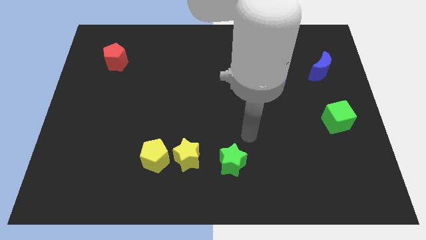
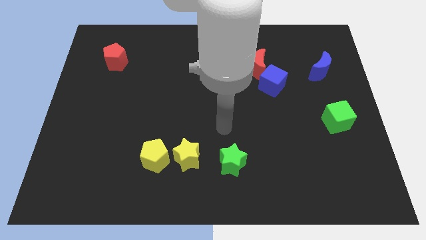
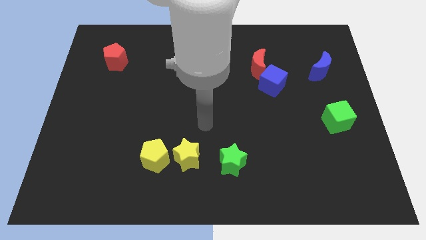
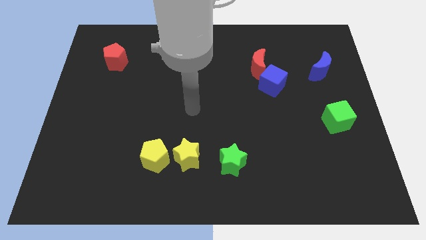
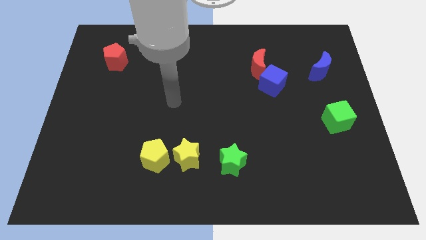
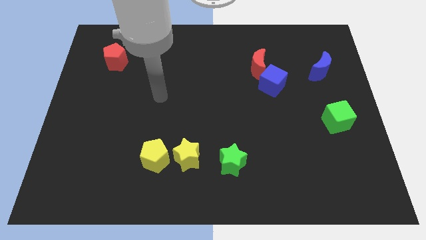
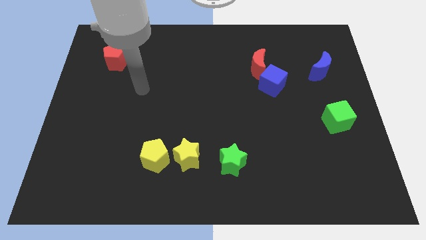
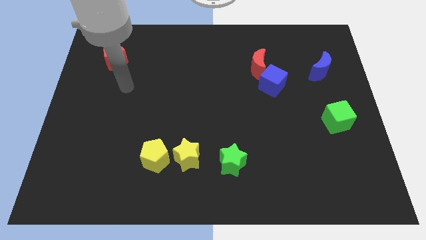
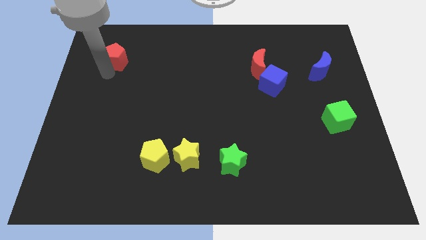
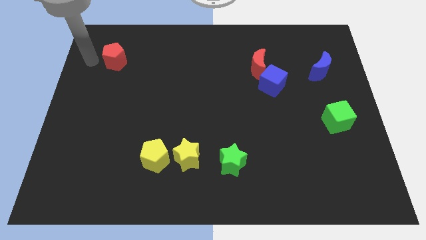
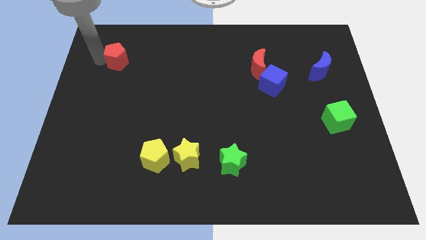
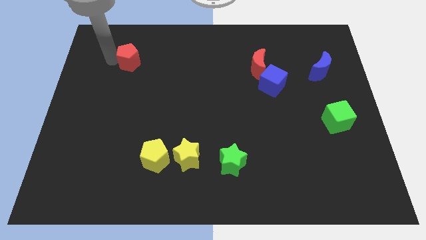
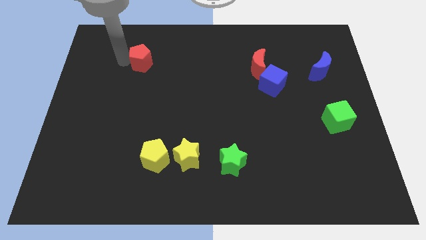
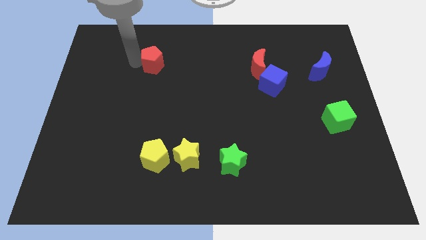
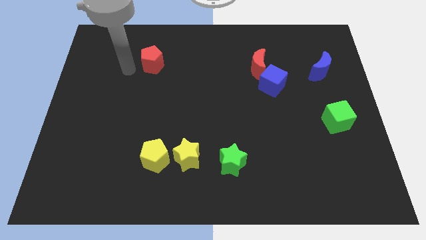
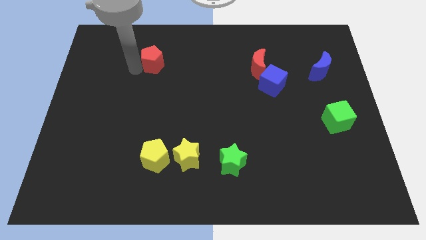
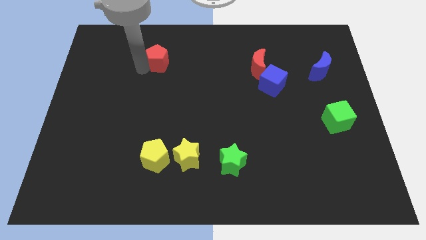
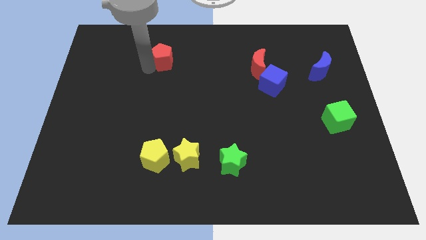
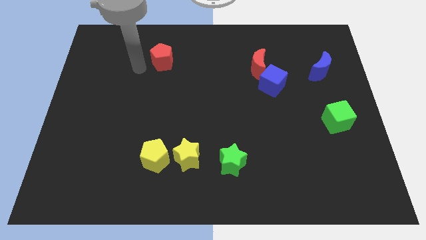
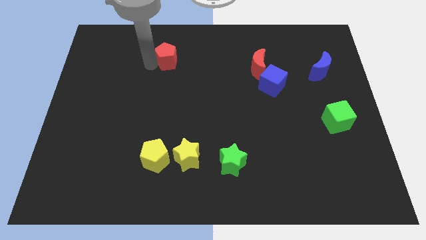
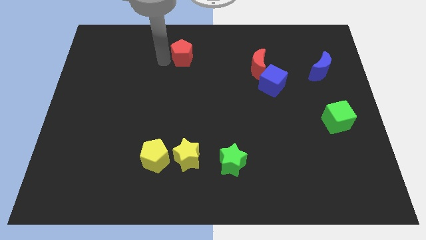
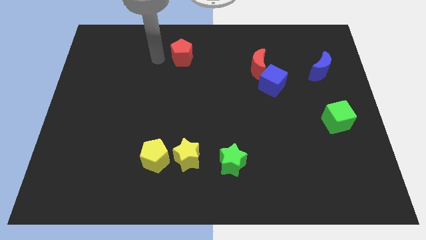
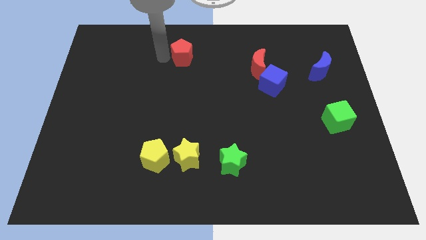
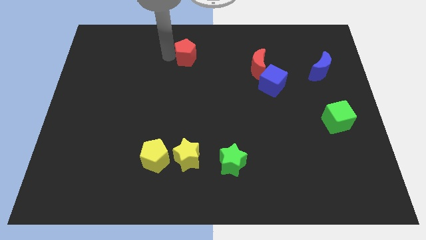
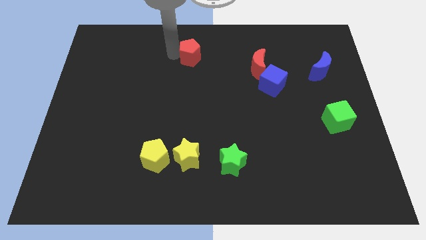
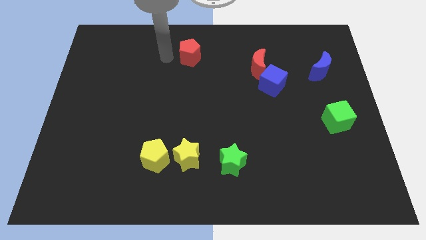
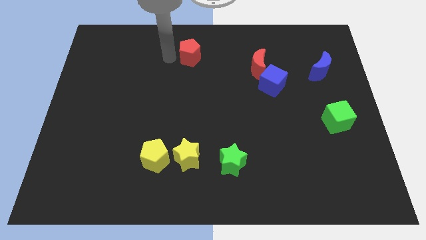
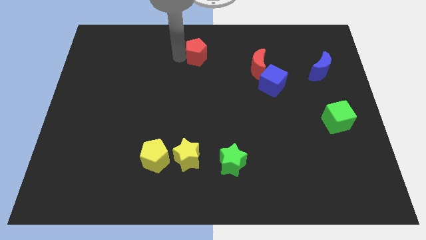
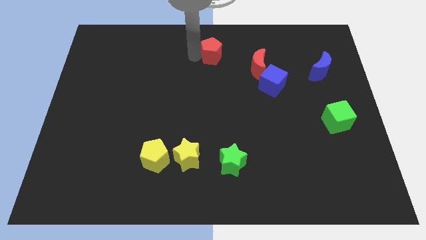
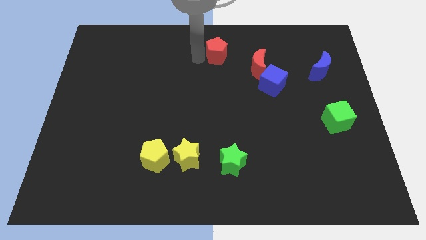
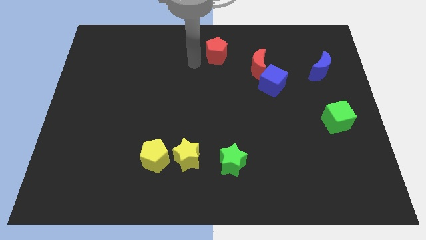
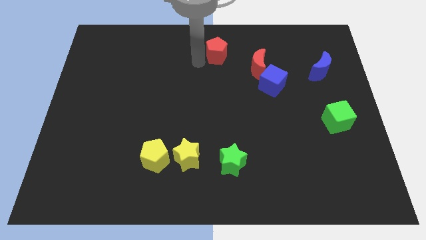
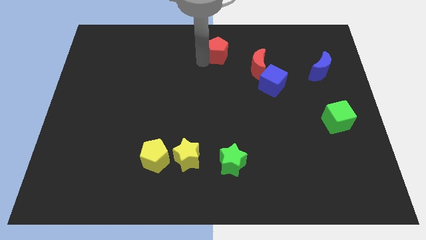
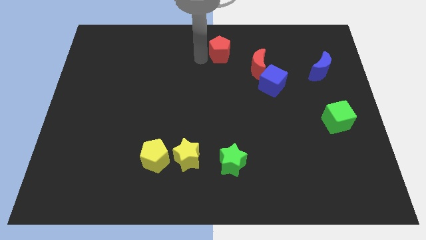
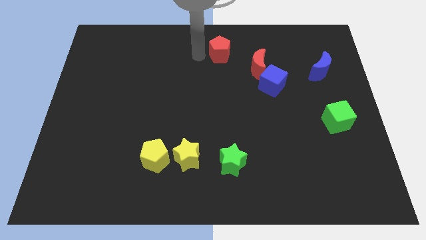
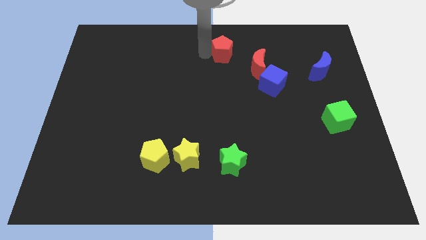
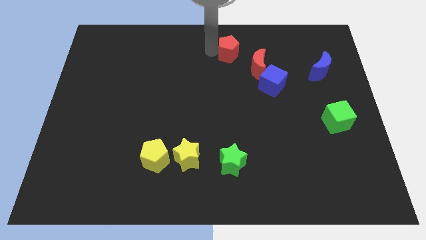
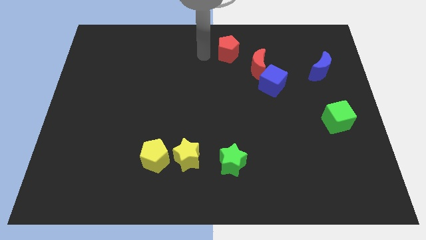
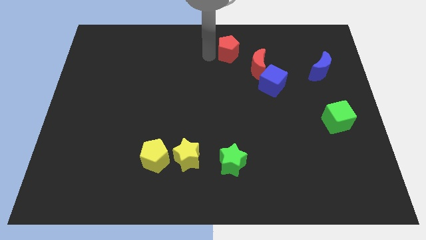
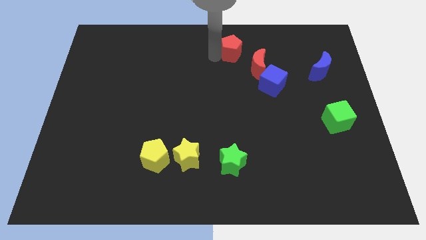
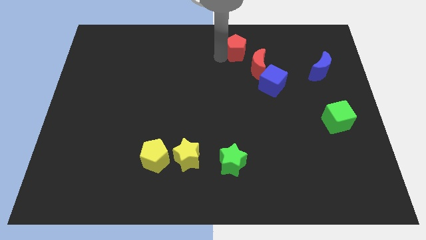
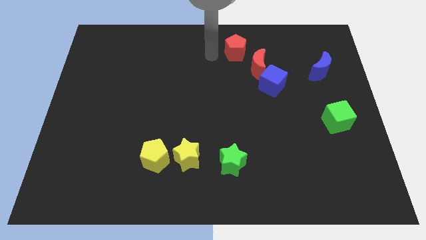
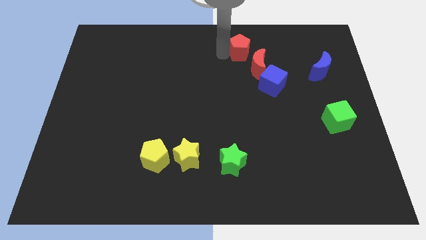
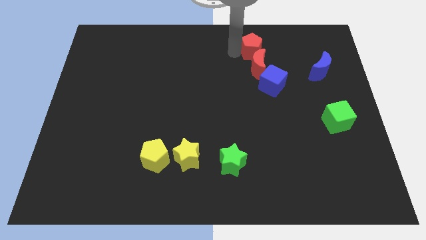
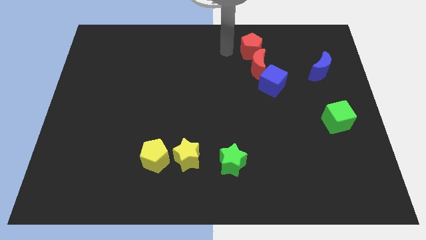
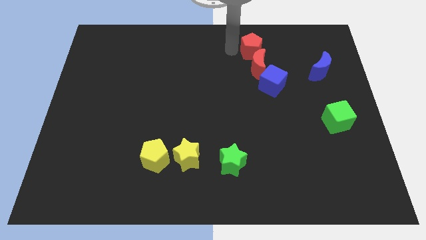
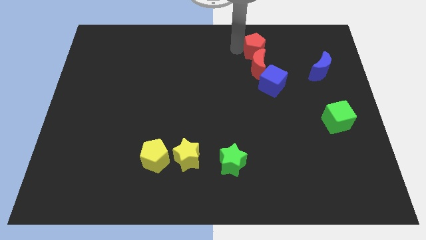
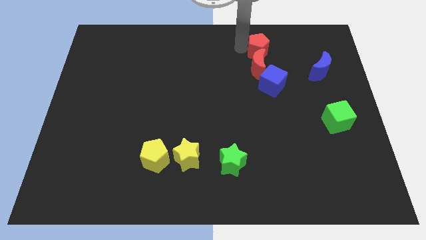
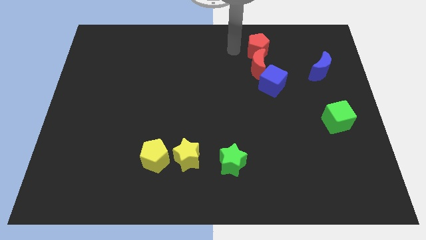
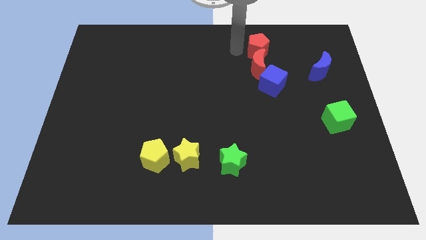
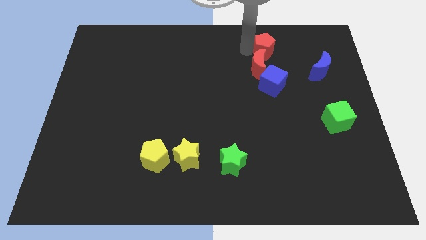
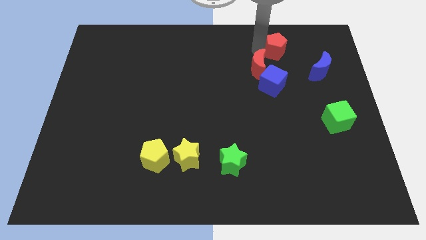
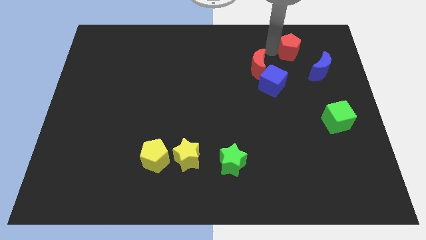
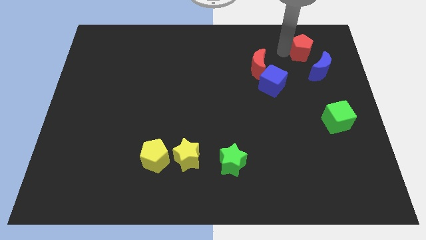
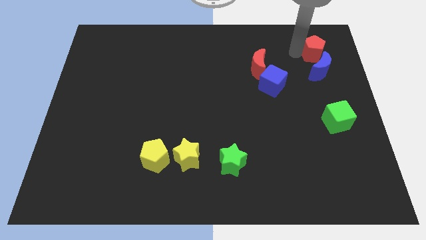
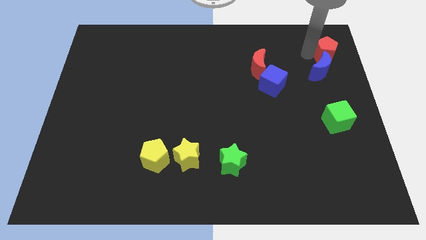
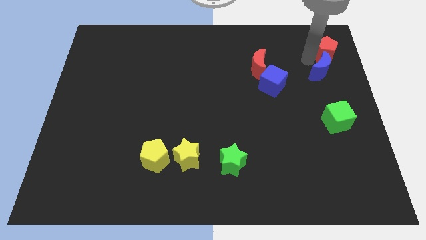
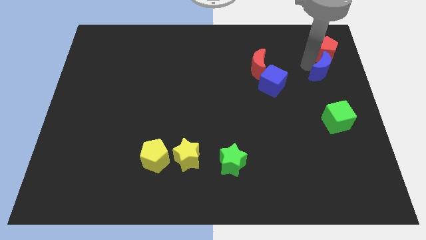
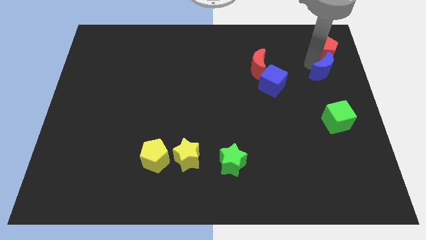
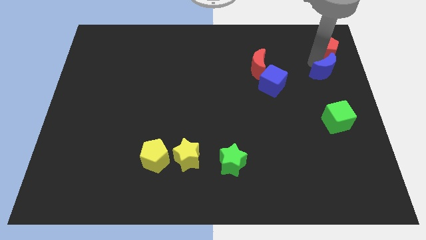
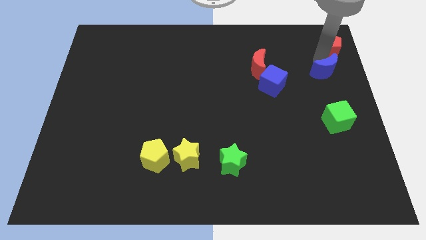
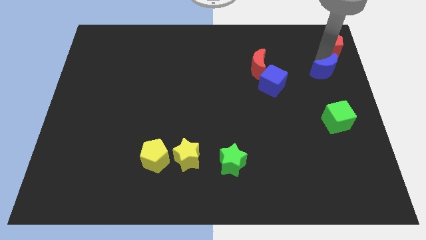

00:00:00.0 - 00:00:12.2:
move the red pentagon to the top right
